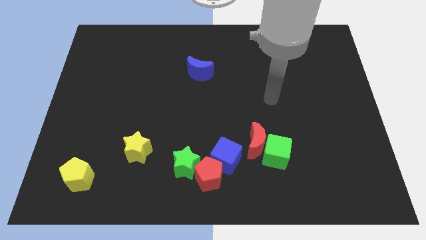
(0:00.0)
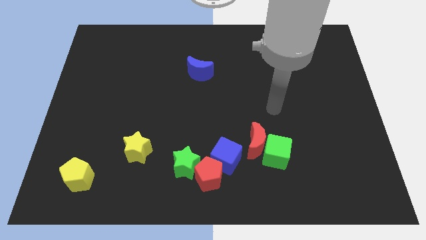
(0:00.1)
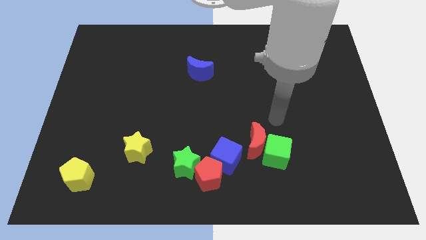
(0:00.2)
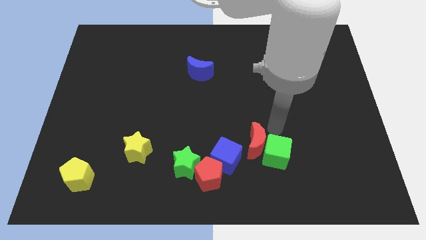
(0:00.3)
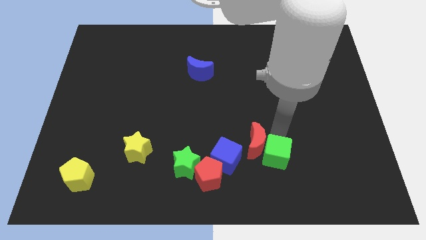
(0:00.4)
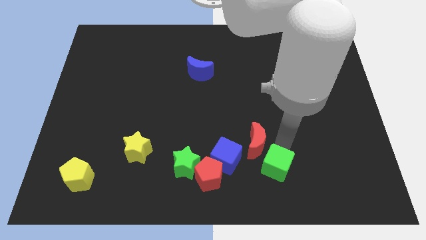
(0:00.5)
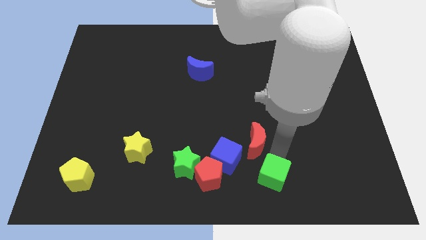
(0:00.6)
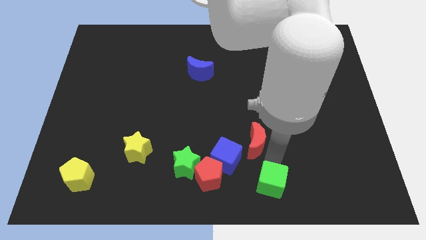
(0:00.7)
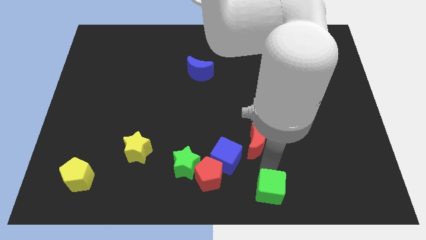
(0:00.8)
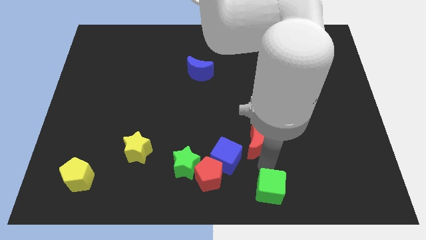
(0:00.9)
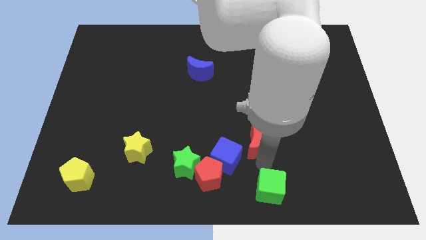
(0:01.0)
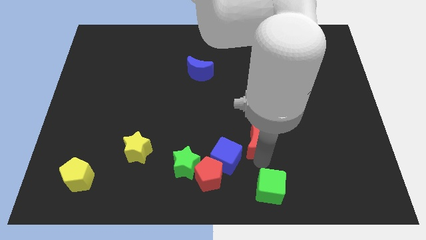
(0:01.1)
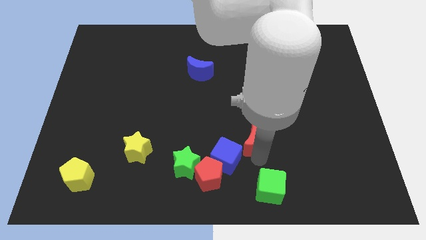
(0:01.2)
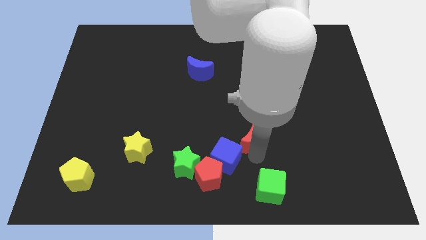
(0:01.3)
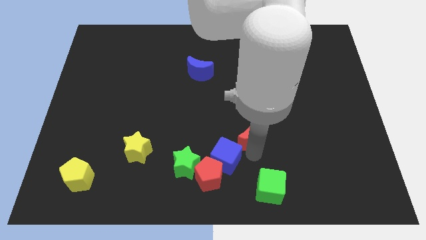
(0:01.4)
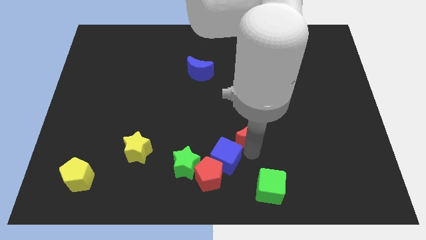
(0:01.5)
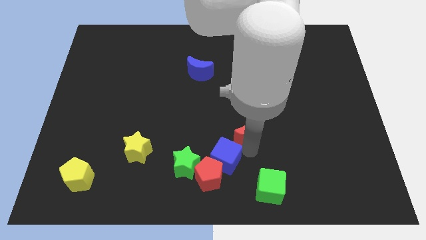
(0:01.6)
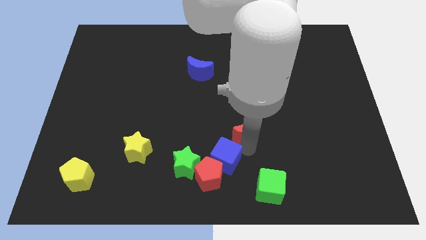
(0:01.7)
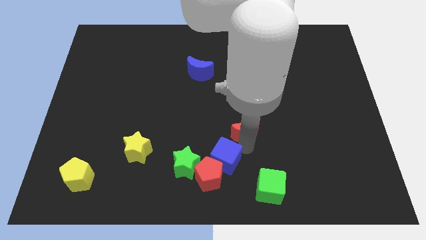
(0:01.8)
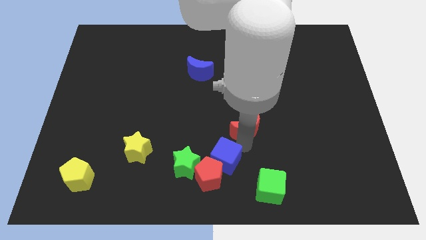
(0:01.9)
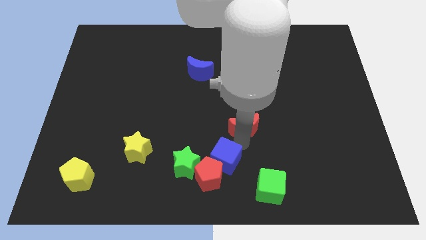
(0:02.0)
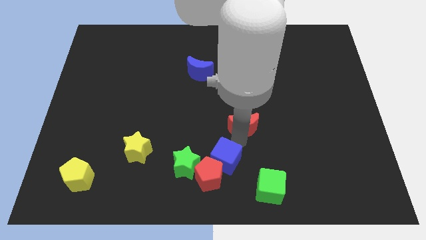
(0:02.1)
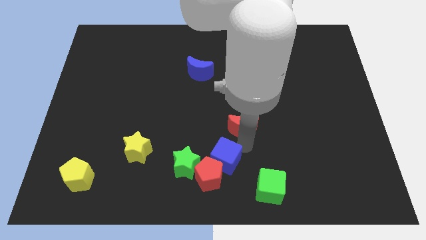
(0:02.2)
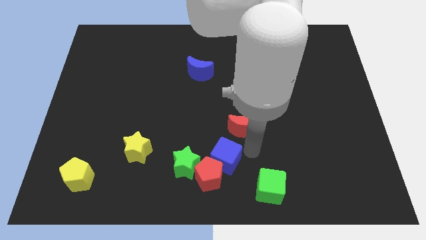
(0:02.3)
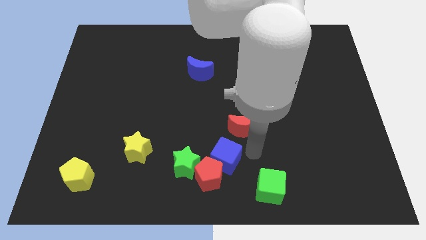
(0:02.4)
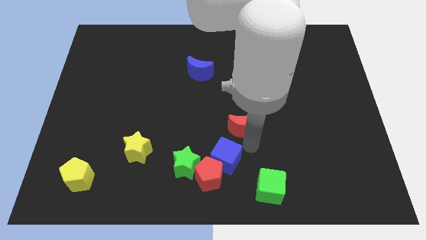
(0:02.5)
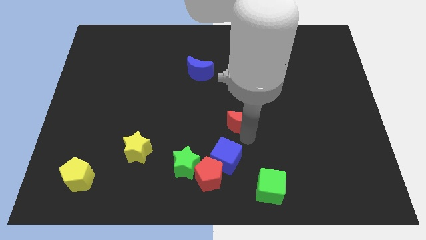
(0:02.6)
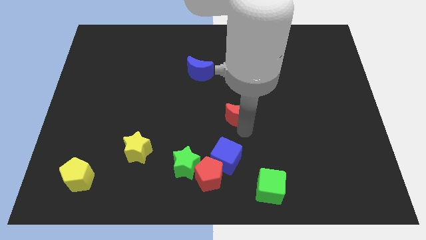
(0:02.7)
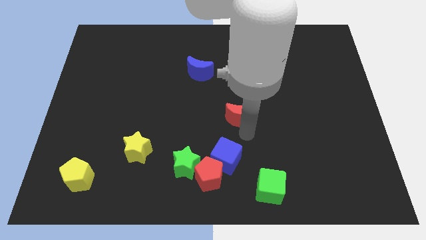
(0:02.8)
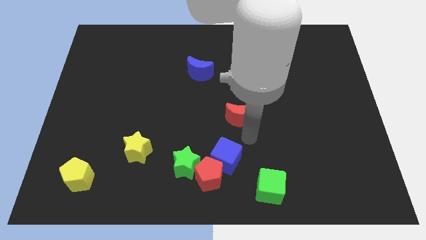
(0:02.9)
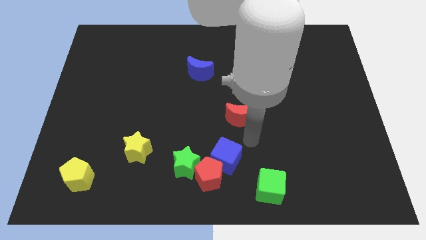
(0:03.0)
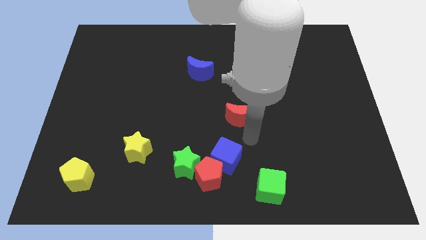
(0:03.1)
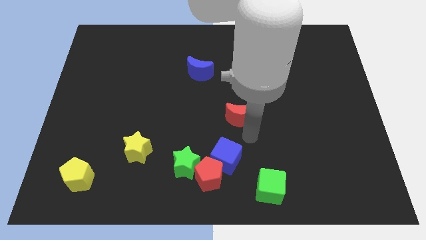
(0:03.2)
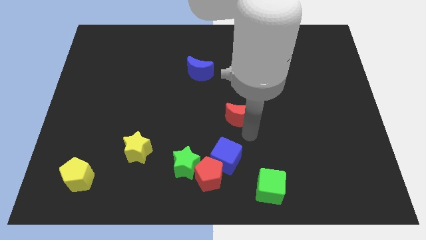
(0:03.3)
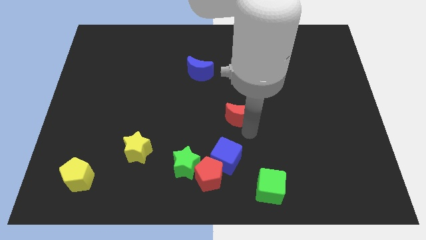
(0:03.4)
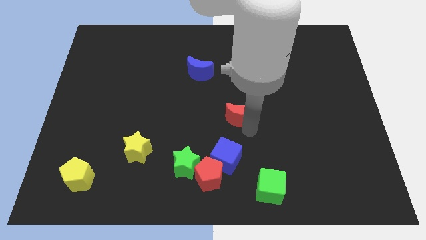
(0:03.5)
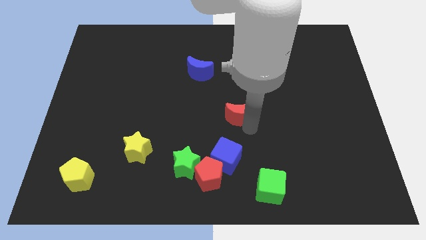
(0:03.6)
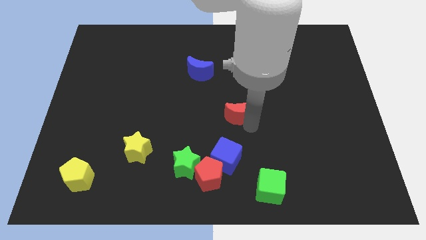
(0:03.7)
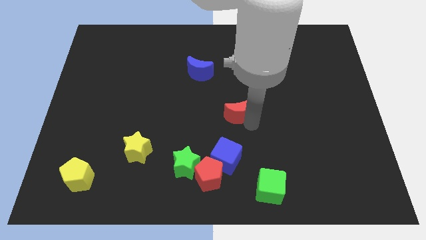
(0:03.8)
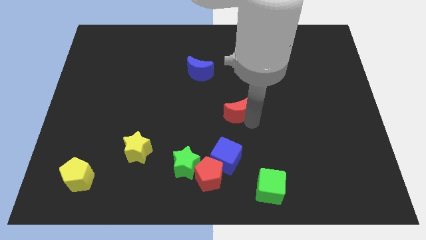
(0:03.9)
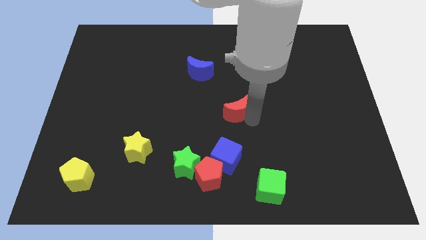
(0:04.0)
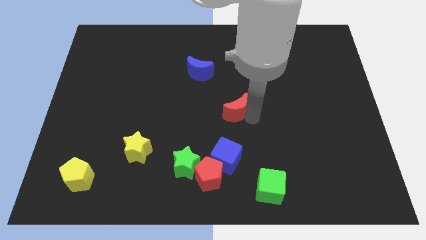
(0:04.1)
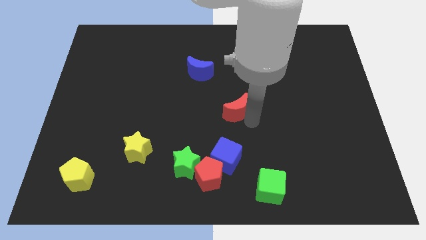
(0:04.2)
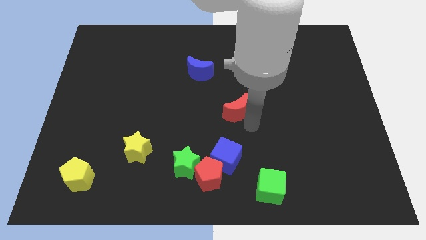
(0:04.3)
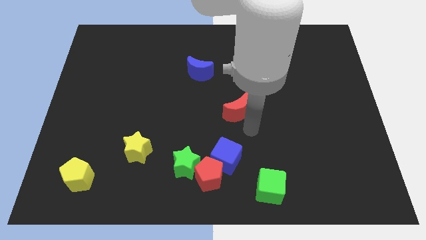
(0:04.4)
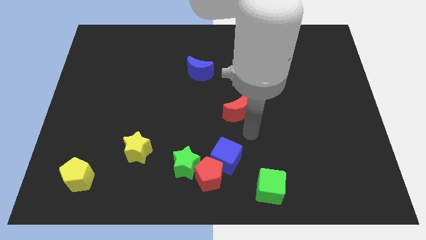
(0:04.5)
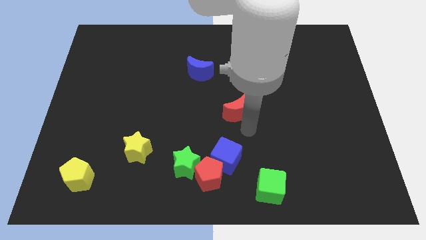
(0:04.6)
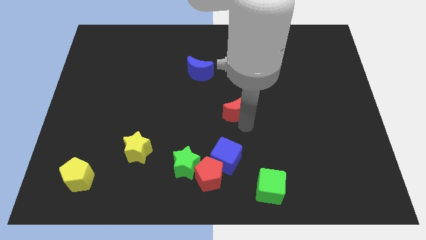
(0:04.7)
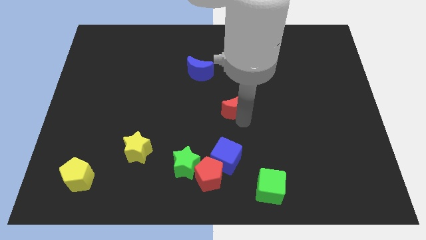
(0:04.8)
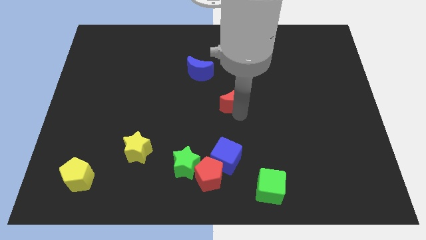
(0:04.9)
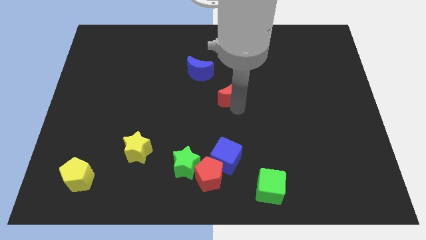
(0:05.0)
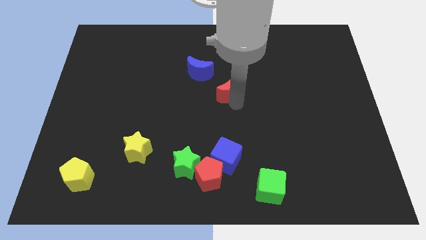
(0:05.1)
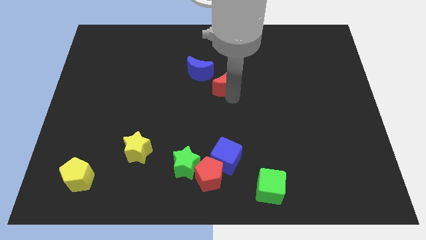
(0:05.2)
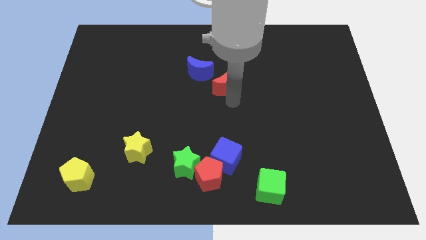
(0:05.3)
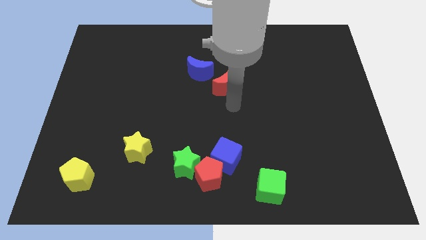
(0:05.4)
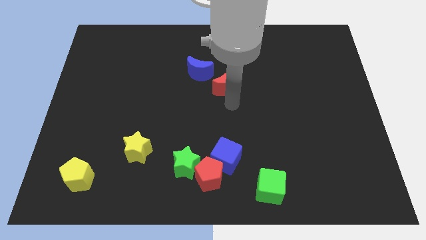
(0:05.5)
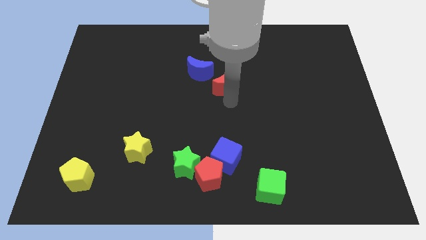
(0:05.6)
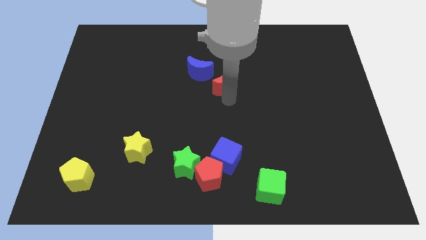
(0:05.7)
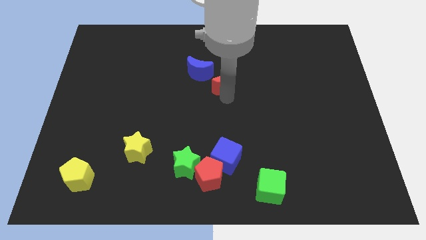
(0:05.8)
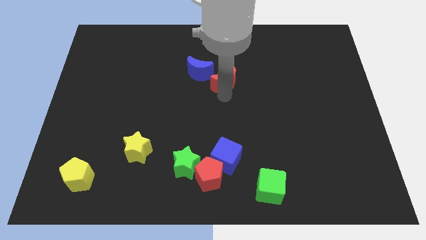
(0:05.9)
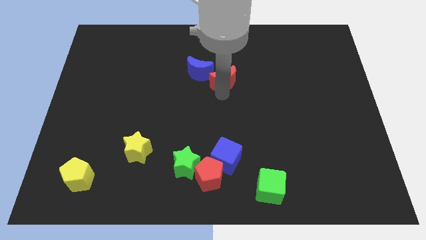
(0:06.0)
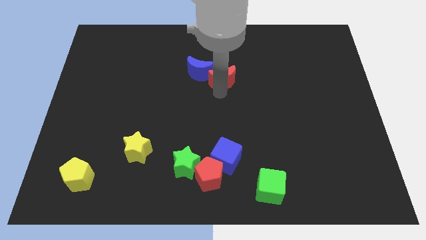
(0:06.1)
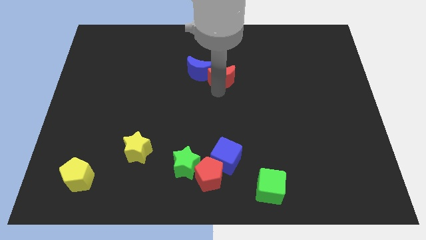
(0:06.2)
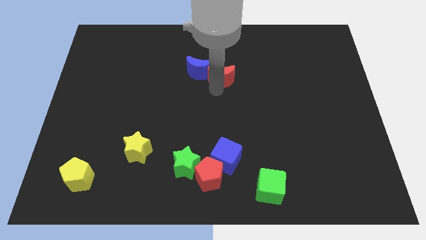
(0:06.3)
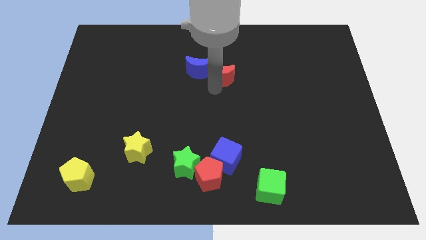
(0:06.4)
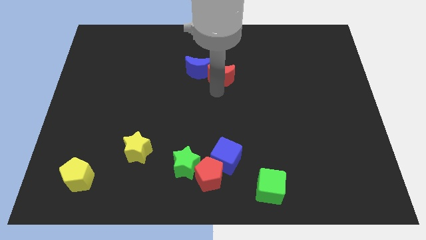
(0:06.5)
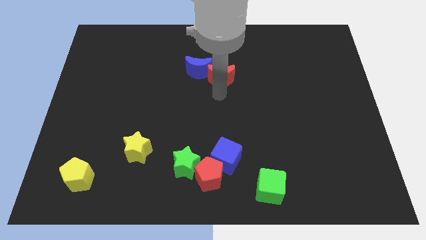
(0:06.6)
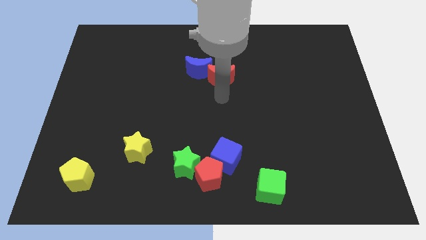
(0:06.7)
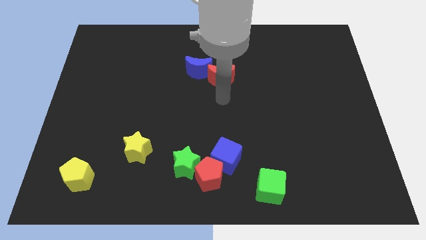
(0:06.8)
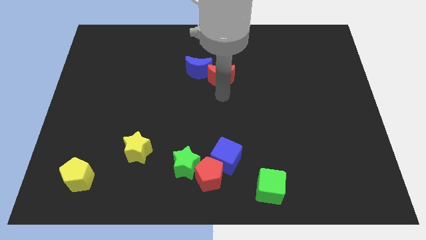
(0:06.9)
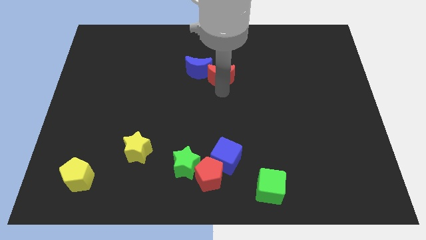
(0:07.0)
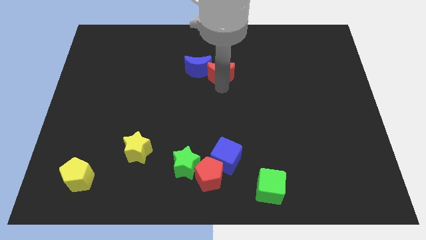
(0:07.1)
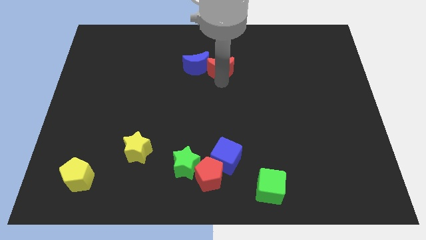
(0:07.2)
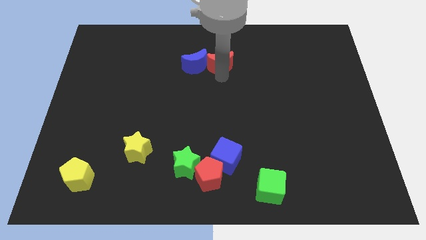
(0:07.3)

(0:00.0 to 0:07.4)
push the red moon to the top right side of the blue moon
